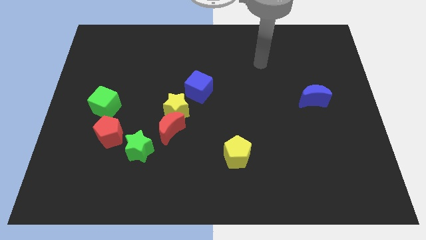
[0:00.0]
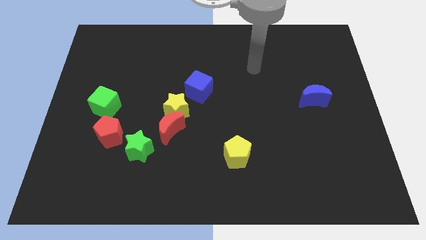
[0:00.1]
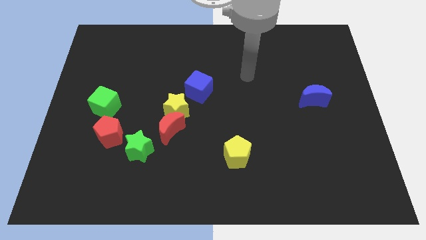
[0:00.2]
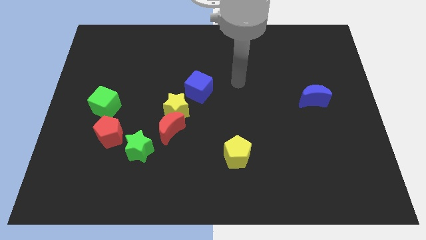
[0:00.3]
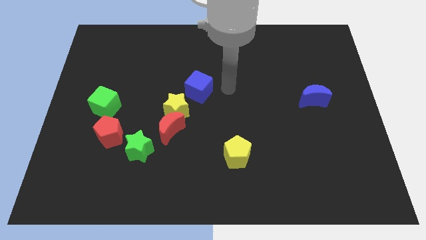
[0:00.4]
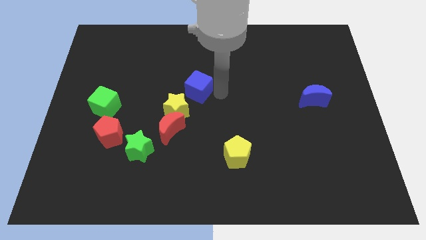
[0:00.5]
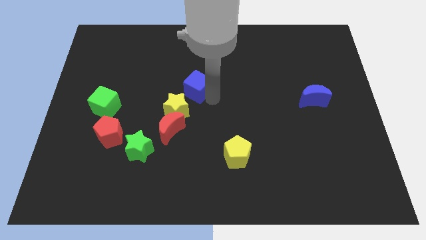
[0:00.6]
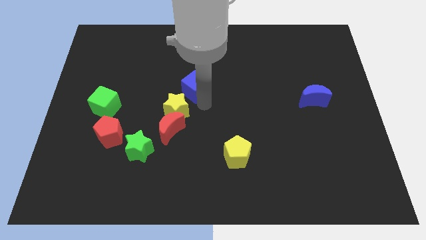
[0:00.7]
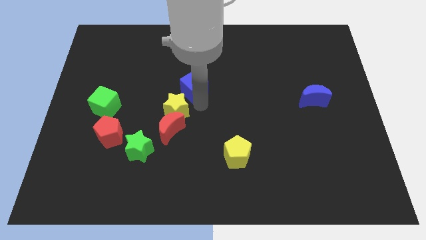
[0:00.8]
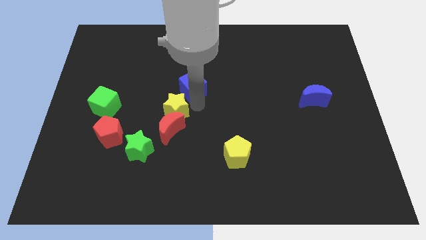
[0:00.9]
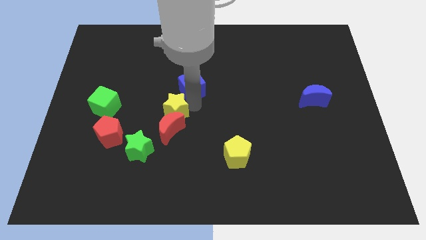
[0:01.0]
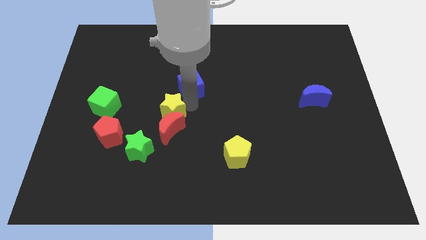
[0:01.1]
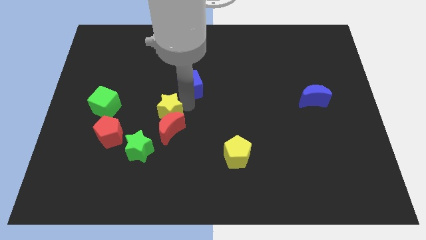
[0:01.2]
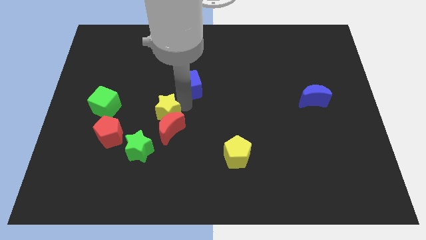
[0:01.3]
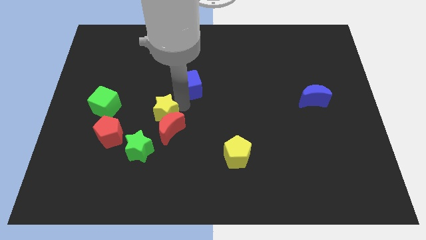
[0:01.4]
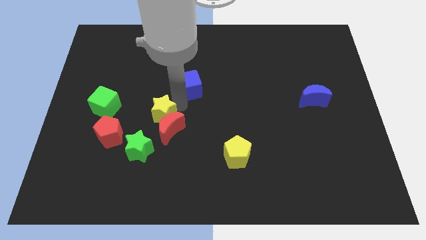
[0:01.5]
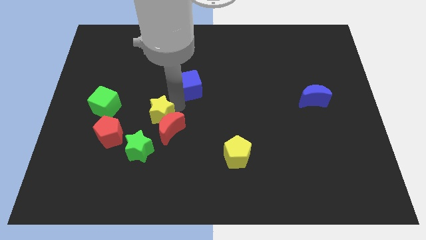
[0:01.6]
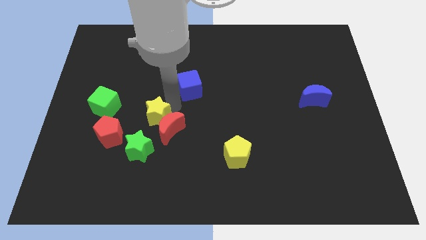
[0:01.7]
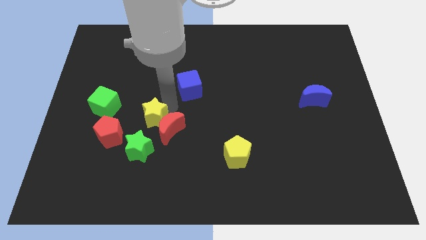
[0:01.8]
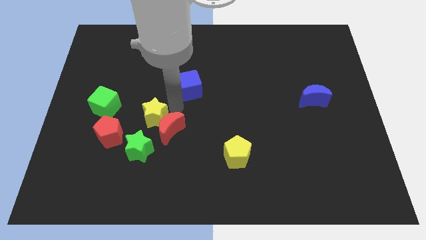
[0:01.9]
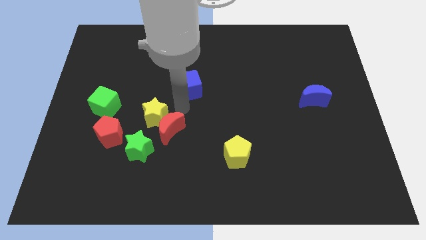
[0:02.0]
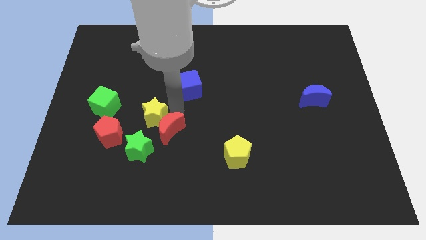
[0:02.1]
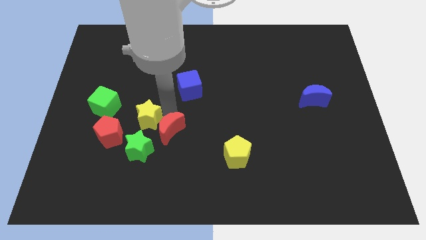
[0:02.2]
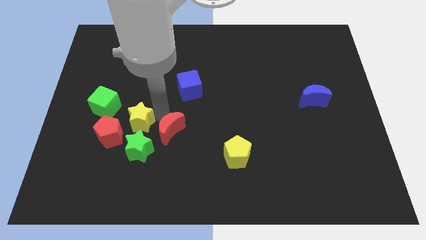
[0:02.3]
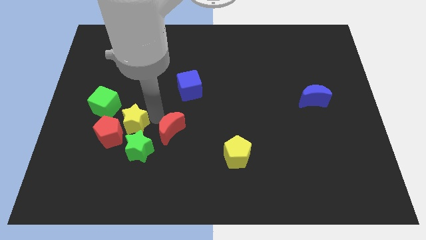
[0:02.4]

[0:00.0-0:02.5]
pull the yellow star apart from the red moon and blue cube

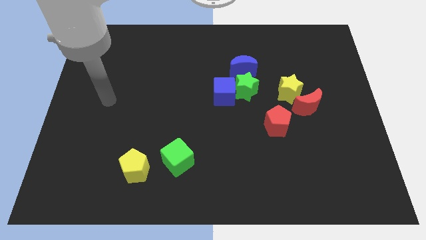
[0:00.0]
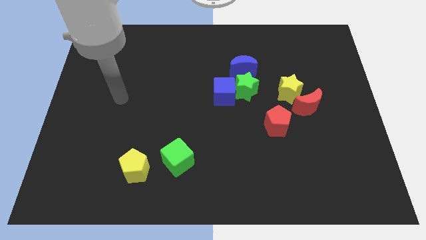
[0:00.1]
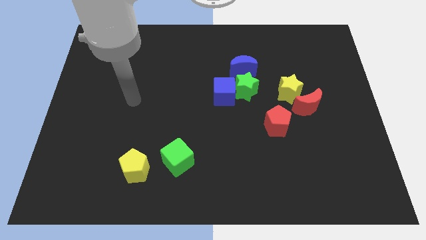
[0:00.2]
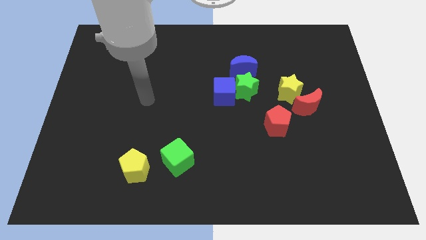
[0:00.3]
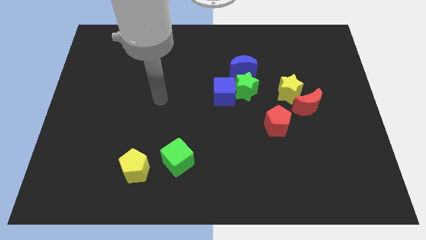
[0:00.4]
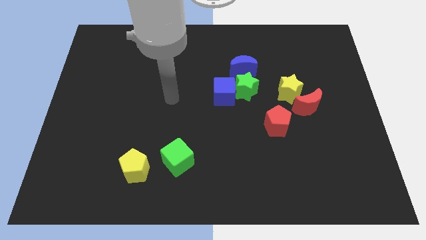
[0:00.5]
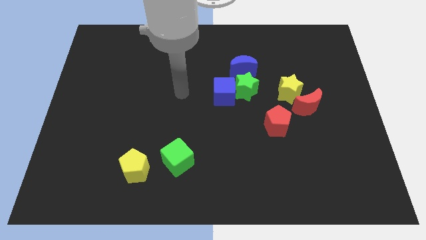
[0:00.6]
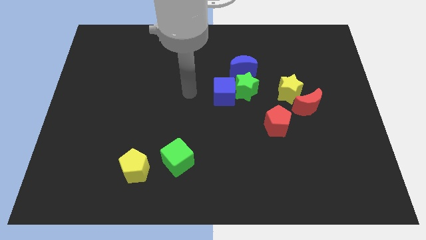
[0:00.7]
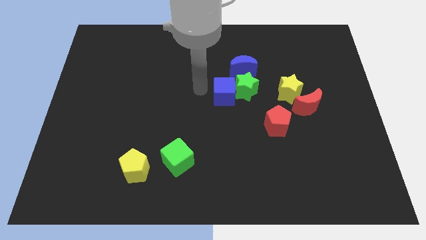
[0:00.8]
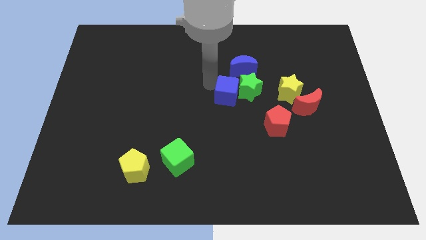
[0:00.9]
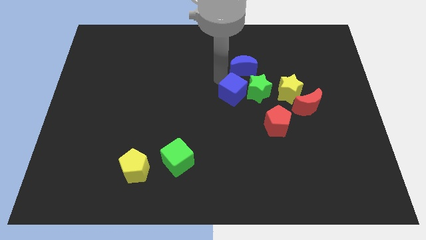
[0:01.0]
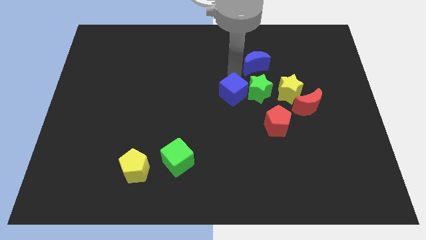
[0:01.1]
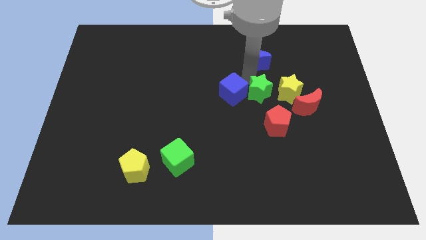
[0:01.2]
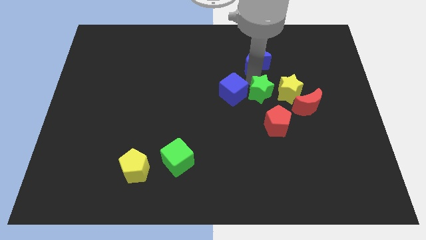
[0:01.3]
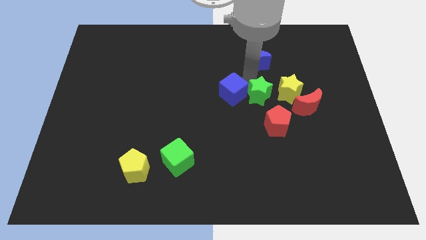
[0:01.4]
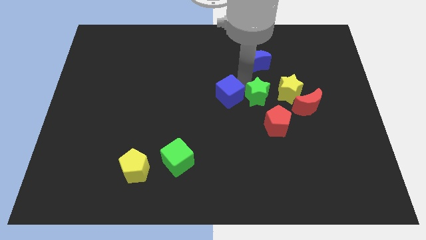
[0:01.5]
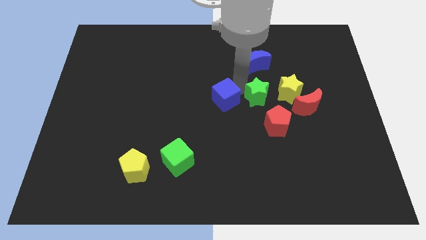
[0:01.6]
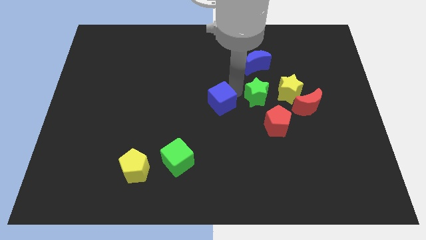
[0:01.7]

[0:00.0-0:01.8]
separate the blue cube from the green star and blue moon

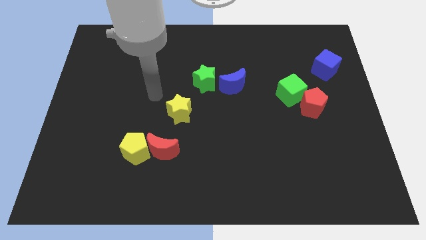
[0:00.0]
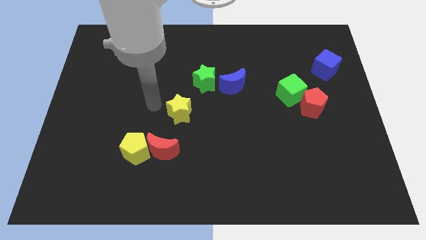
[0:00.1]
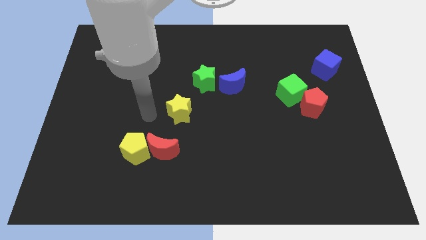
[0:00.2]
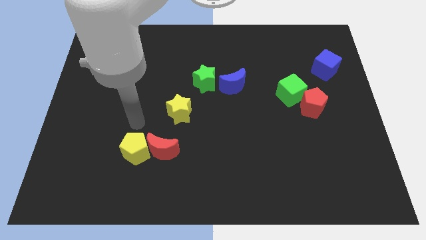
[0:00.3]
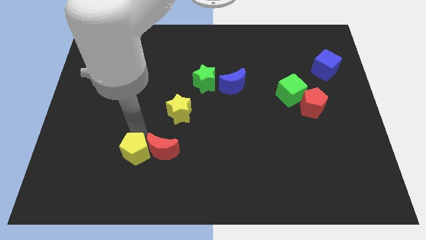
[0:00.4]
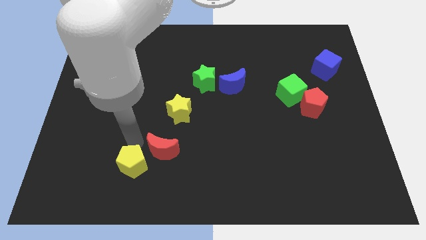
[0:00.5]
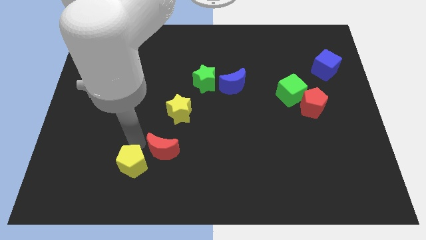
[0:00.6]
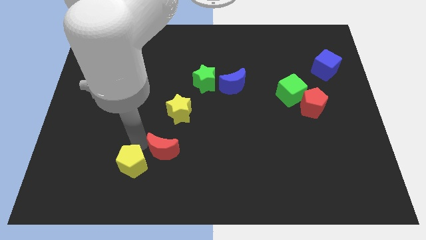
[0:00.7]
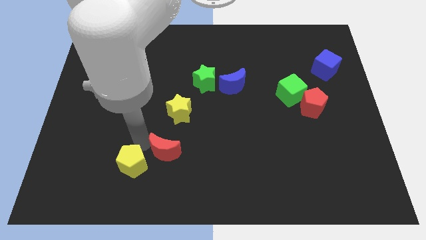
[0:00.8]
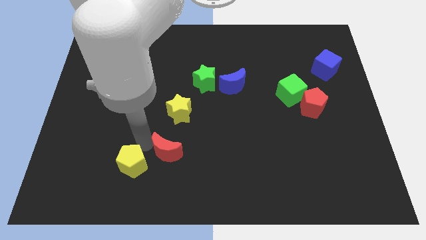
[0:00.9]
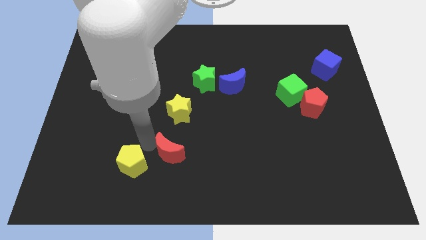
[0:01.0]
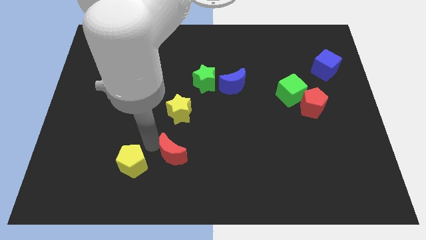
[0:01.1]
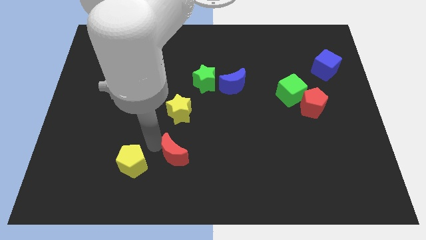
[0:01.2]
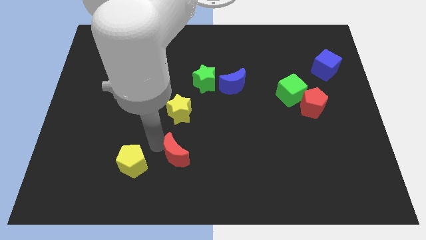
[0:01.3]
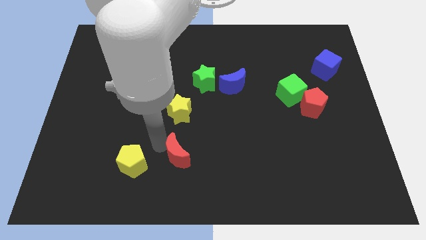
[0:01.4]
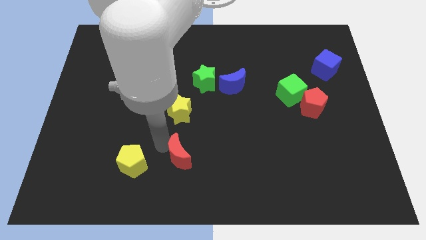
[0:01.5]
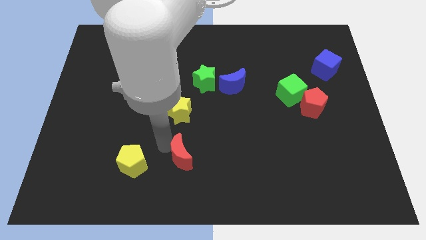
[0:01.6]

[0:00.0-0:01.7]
separate the red moon from the yellow pentagon

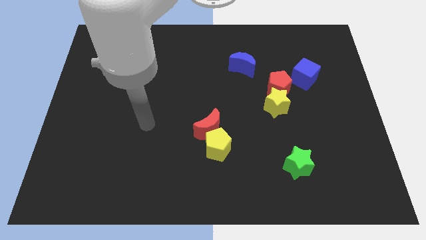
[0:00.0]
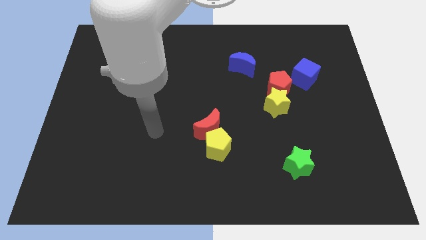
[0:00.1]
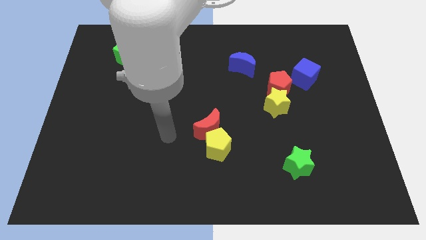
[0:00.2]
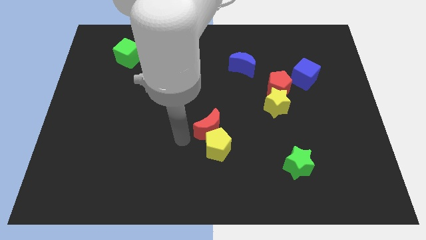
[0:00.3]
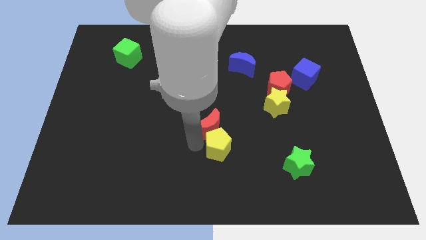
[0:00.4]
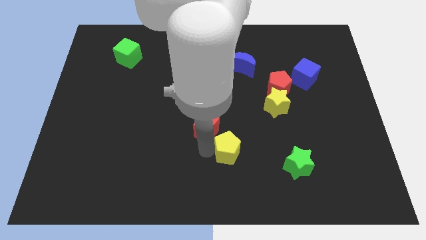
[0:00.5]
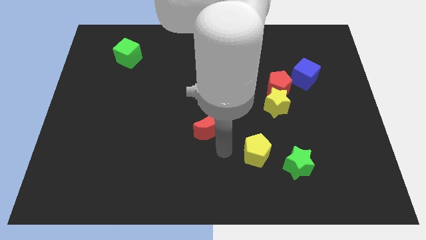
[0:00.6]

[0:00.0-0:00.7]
pull the red moon apart from the yellow pentagon

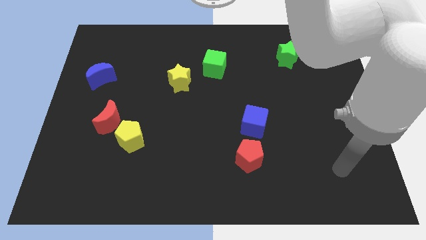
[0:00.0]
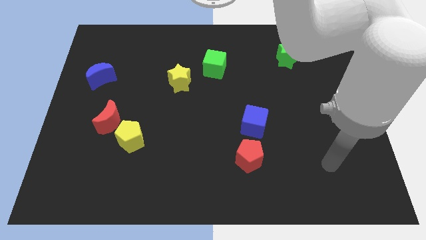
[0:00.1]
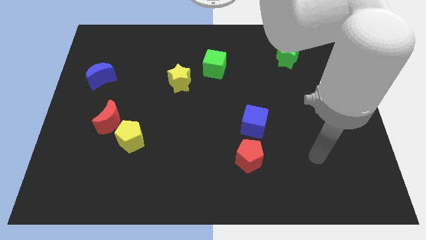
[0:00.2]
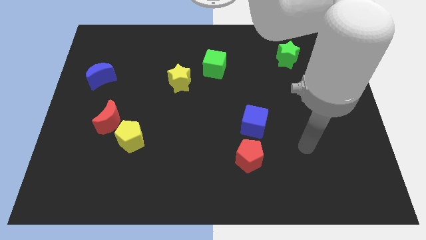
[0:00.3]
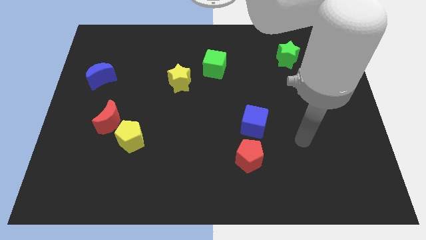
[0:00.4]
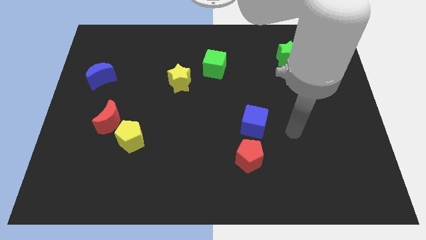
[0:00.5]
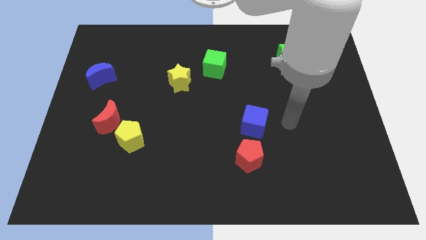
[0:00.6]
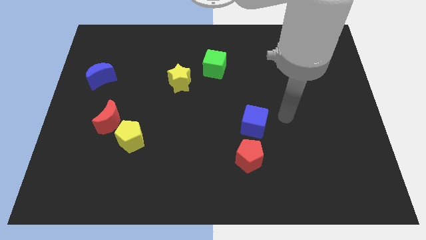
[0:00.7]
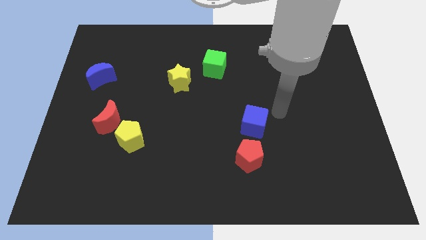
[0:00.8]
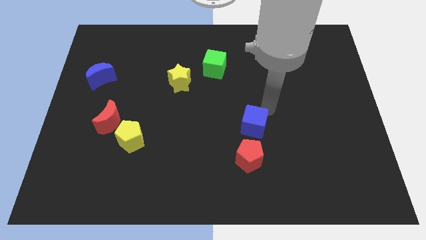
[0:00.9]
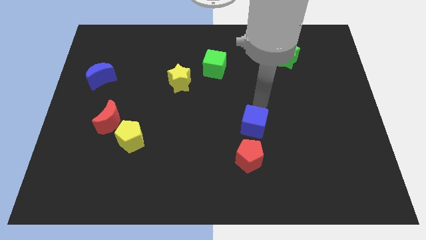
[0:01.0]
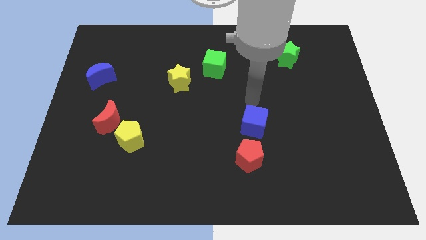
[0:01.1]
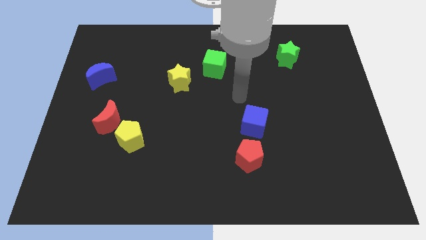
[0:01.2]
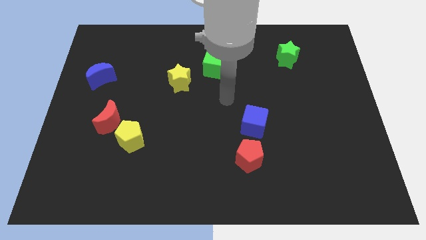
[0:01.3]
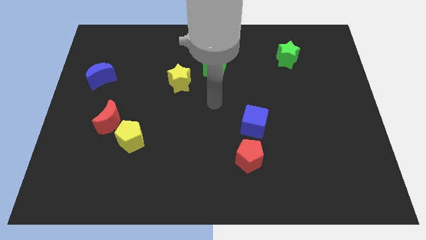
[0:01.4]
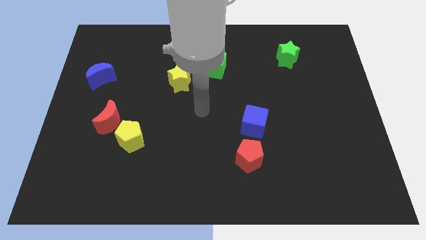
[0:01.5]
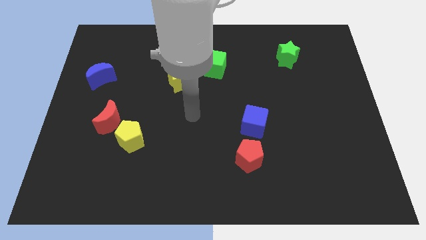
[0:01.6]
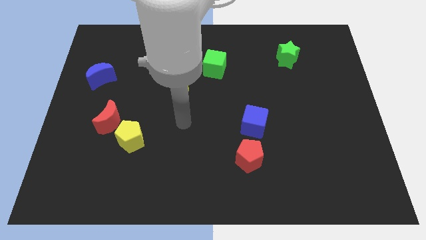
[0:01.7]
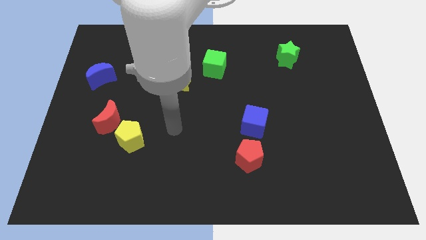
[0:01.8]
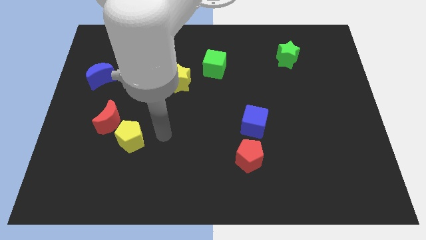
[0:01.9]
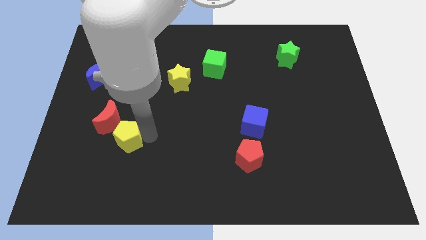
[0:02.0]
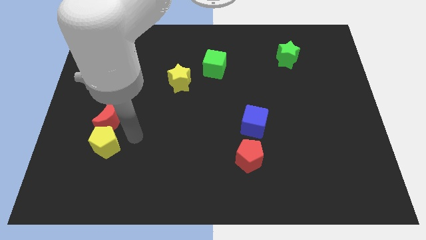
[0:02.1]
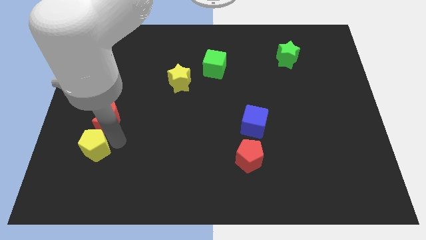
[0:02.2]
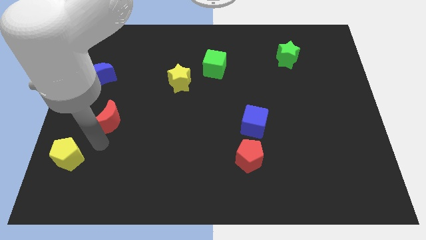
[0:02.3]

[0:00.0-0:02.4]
move the red moon away from the yellow pentagon
